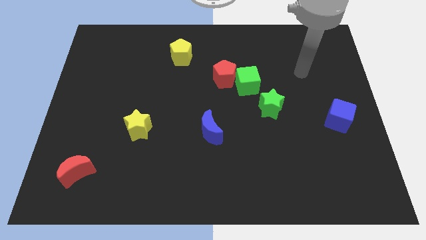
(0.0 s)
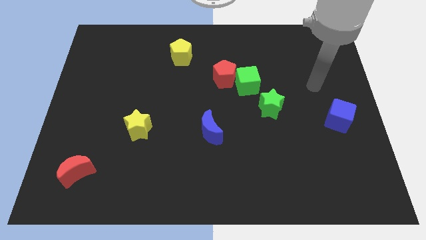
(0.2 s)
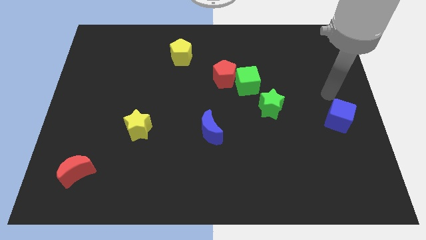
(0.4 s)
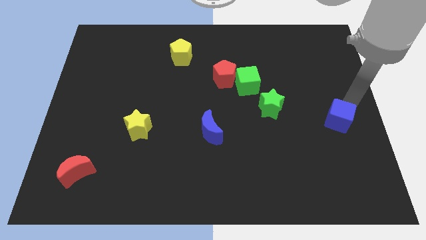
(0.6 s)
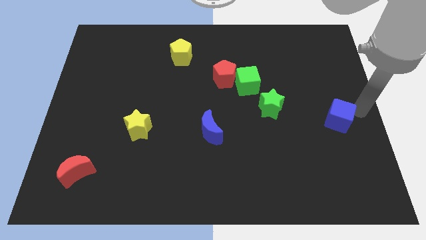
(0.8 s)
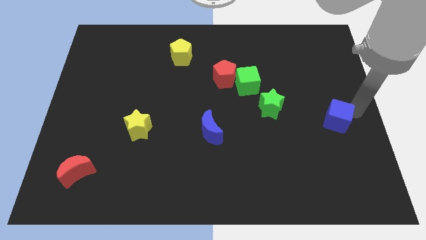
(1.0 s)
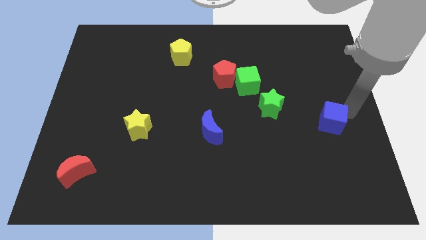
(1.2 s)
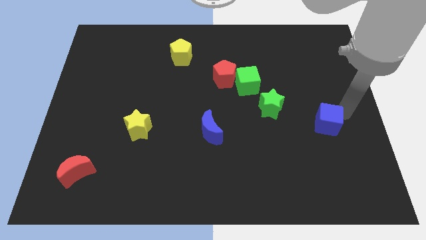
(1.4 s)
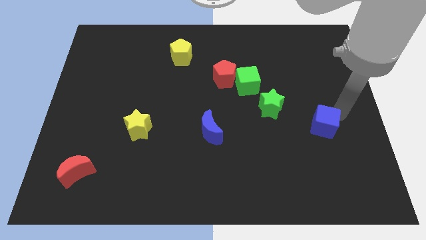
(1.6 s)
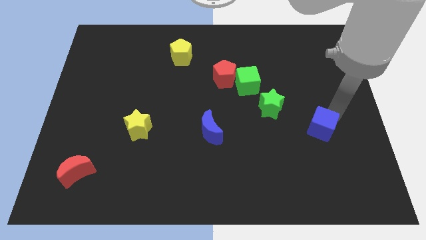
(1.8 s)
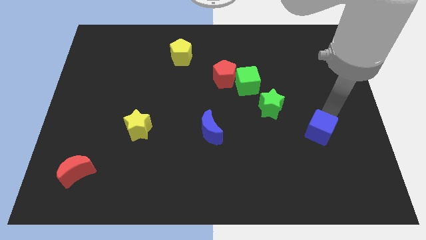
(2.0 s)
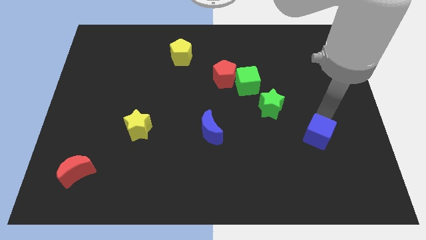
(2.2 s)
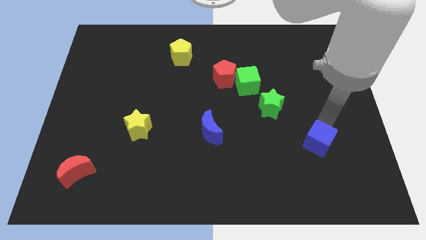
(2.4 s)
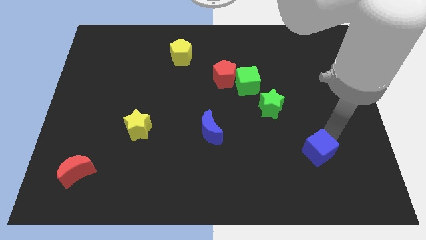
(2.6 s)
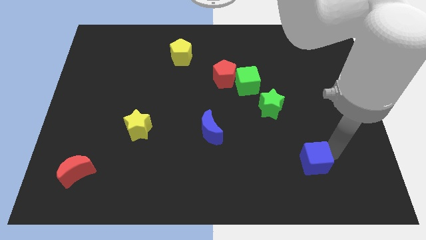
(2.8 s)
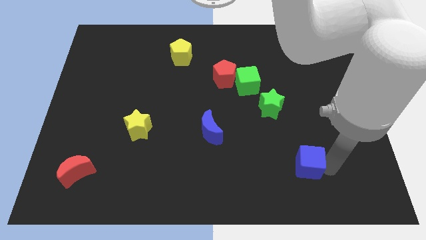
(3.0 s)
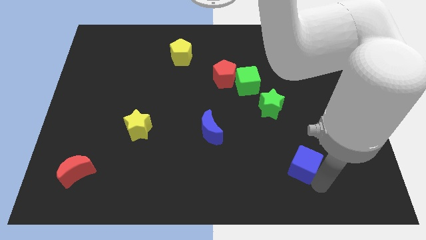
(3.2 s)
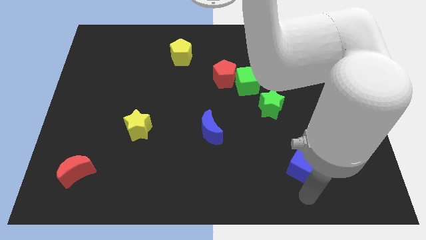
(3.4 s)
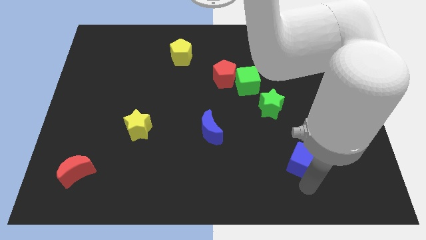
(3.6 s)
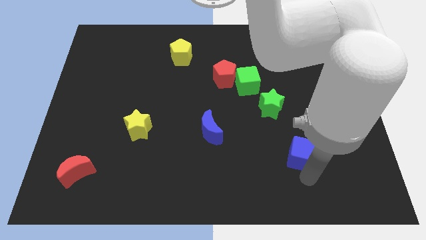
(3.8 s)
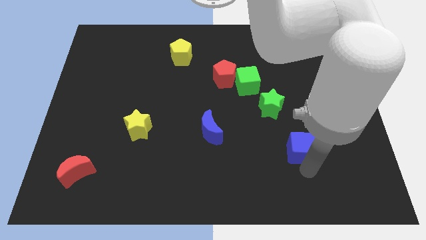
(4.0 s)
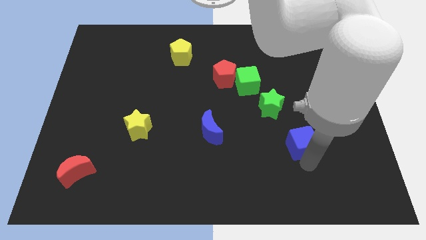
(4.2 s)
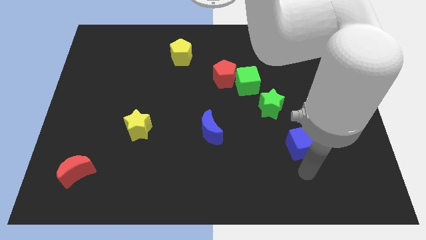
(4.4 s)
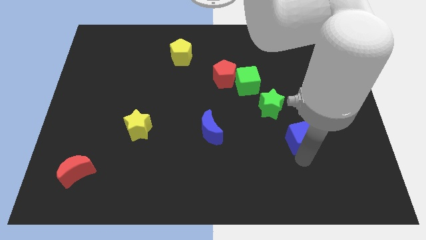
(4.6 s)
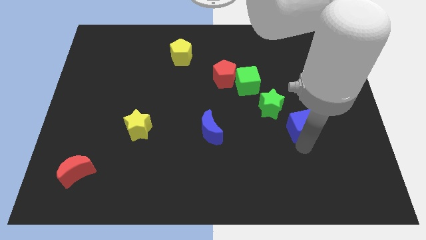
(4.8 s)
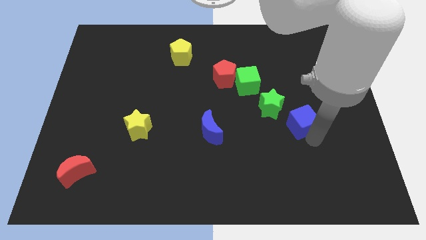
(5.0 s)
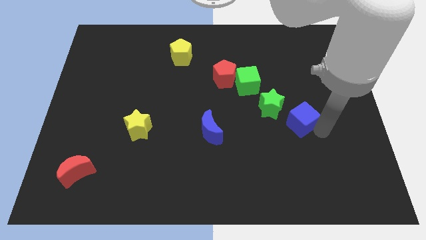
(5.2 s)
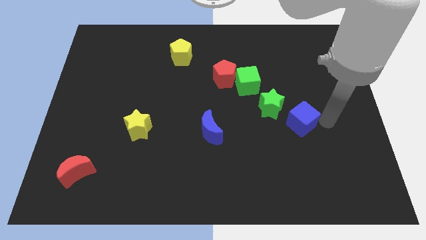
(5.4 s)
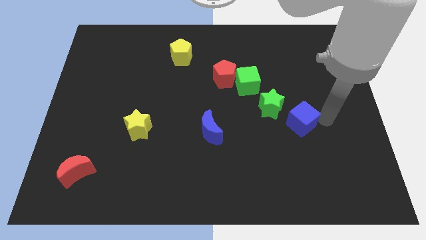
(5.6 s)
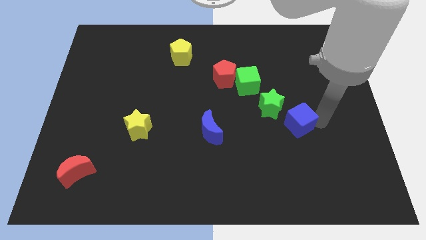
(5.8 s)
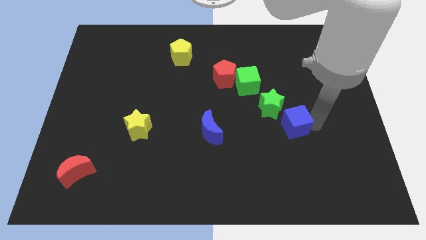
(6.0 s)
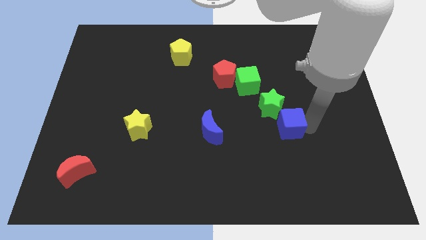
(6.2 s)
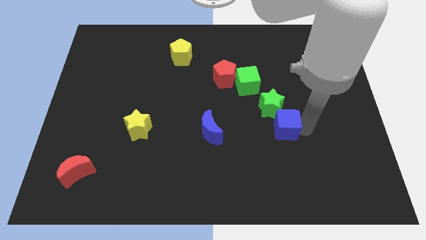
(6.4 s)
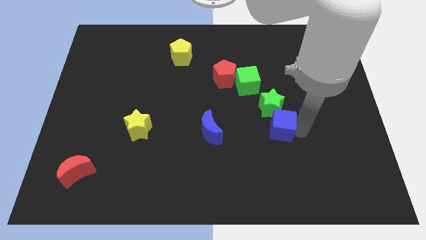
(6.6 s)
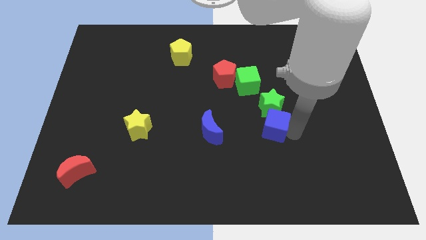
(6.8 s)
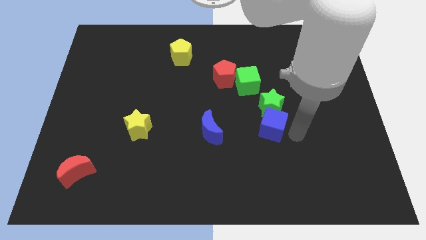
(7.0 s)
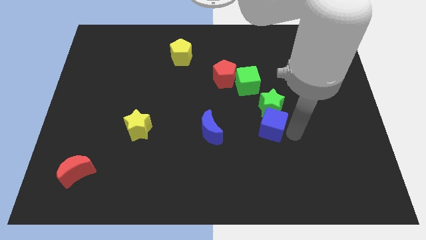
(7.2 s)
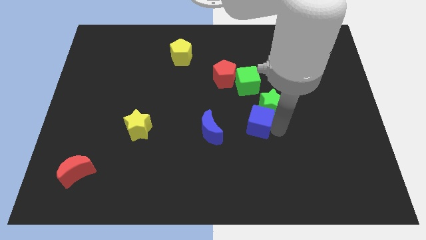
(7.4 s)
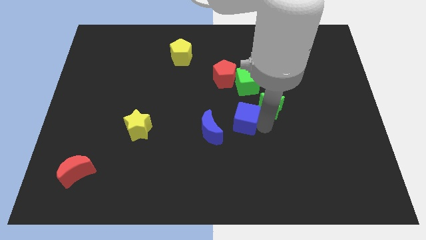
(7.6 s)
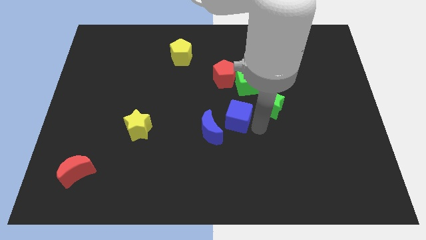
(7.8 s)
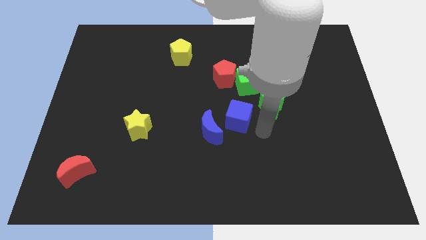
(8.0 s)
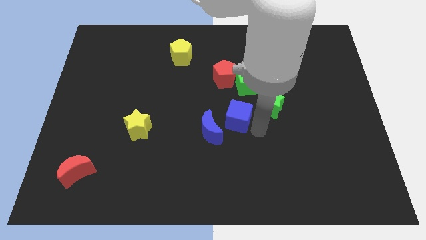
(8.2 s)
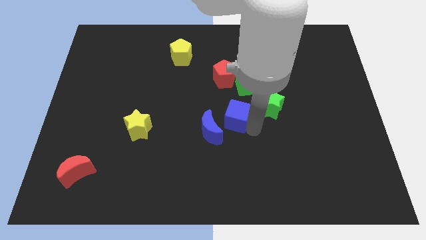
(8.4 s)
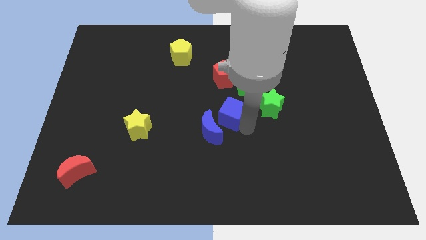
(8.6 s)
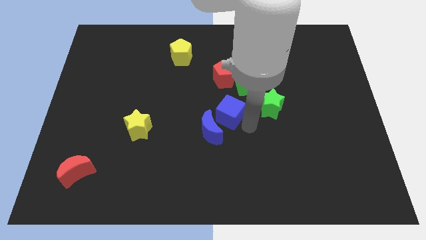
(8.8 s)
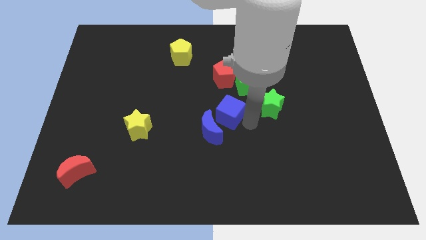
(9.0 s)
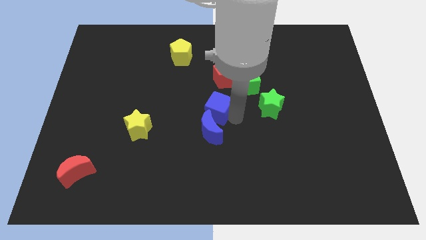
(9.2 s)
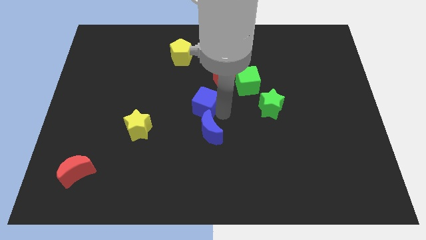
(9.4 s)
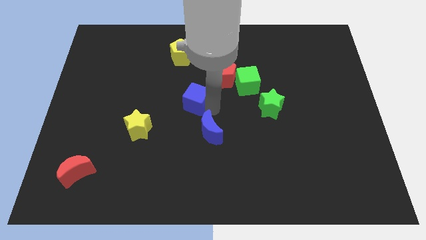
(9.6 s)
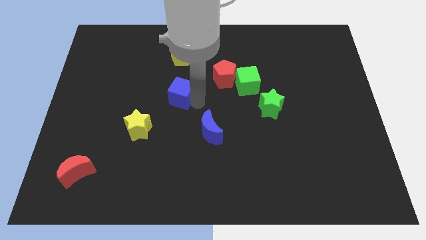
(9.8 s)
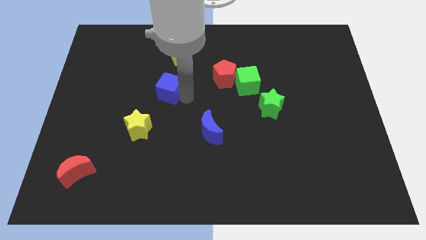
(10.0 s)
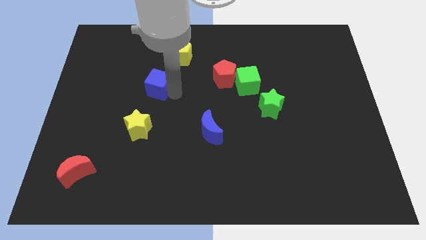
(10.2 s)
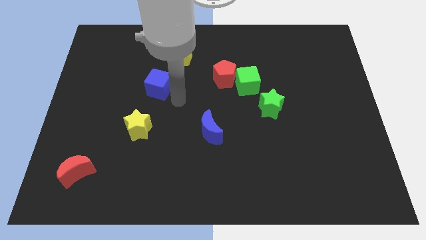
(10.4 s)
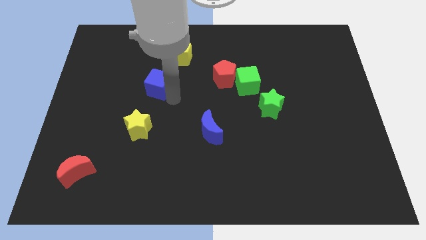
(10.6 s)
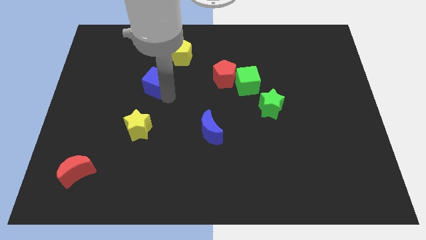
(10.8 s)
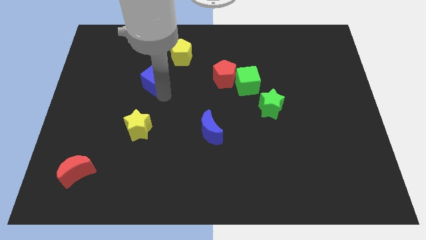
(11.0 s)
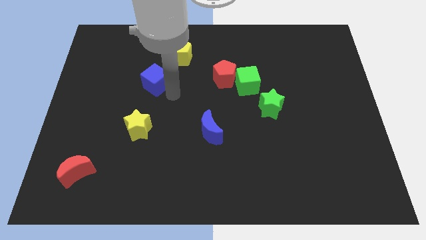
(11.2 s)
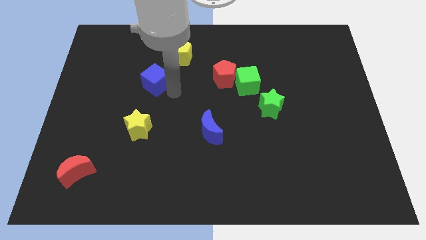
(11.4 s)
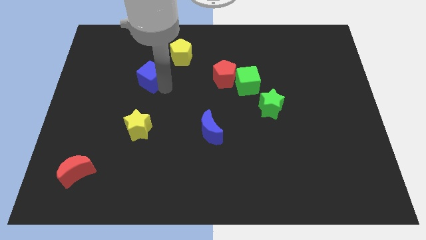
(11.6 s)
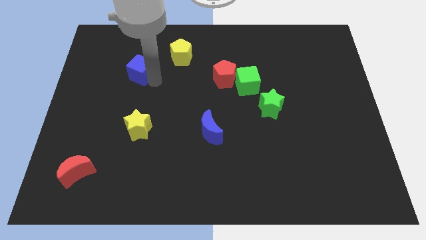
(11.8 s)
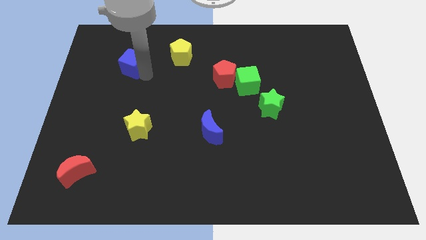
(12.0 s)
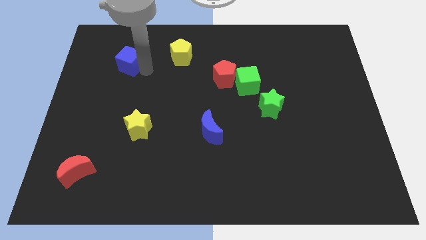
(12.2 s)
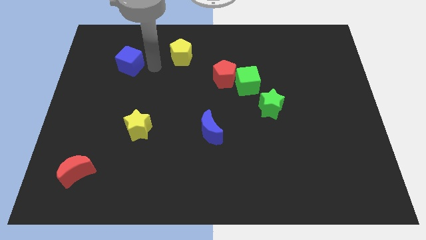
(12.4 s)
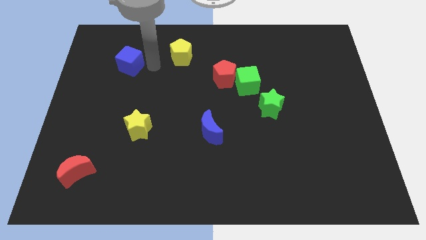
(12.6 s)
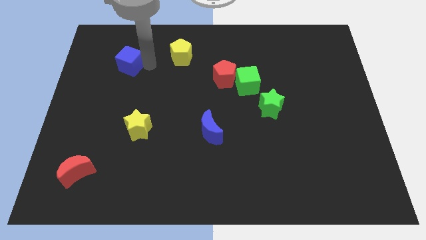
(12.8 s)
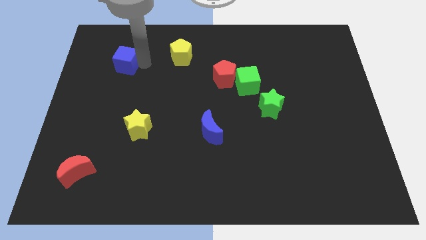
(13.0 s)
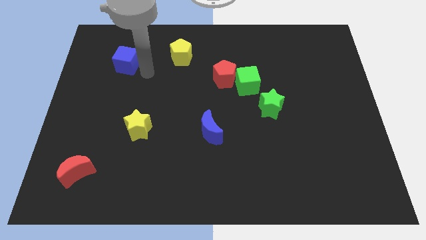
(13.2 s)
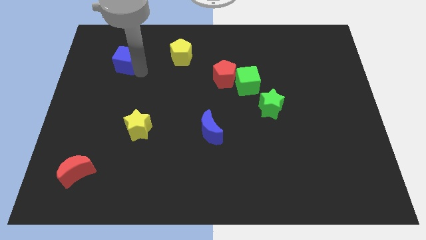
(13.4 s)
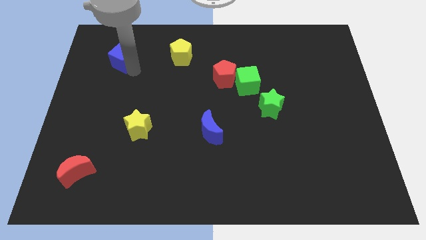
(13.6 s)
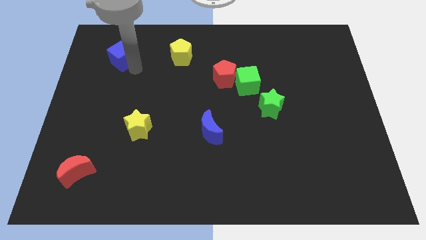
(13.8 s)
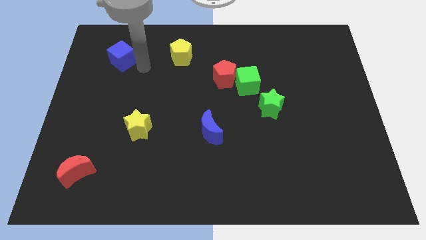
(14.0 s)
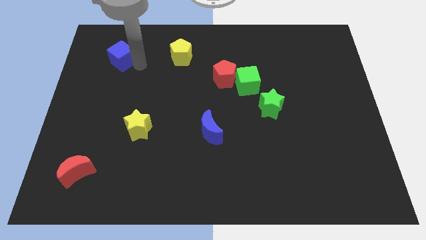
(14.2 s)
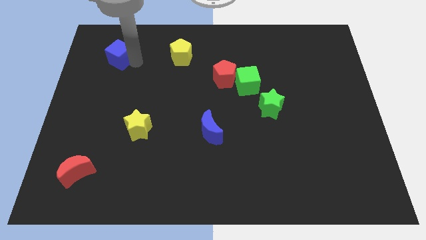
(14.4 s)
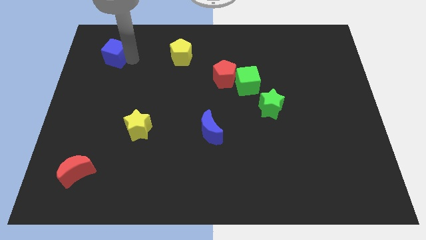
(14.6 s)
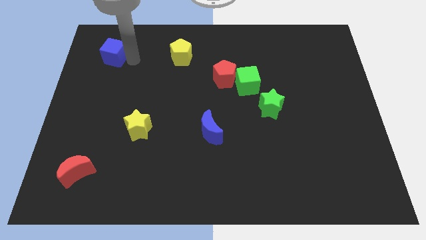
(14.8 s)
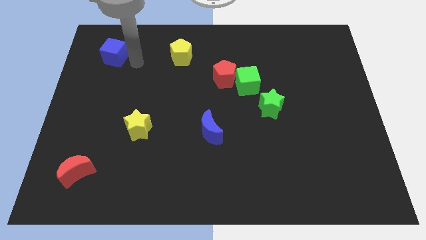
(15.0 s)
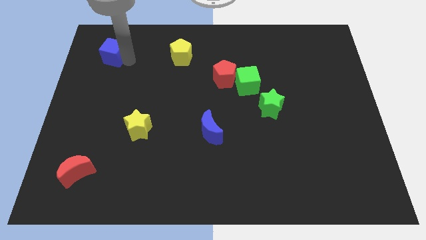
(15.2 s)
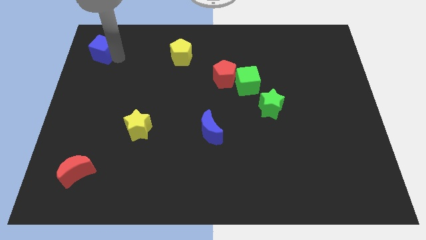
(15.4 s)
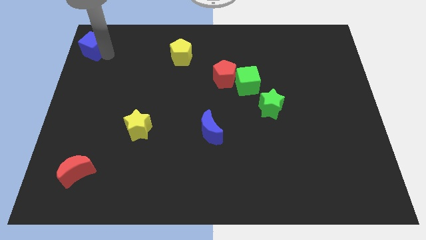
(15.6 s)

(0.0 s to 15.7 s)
push the blue cube to the top left corner
